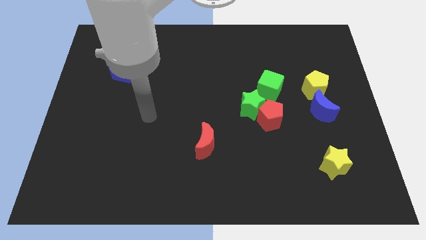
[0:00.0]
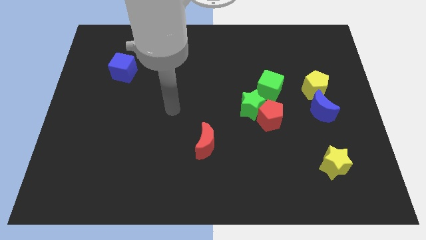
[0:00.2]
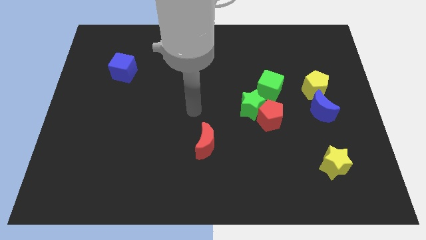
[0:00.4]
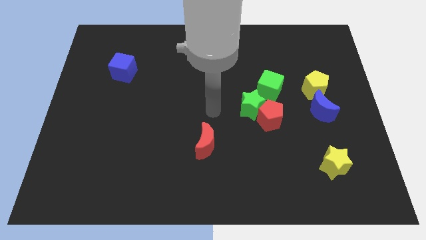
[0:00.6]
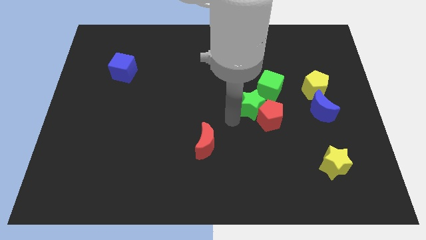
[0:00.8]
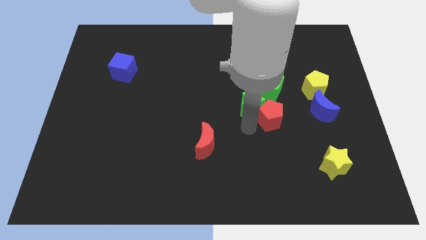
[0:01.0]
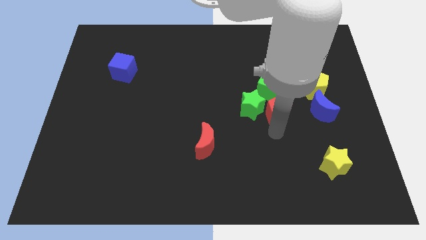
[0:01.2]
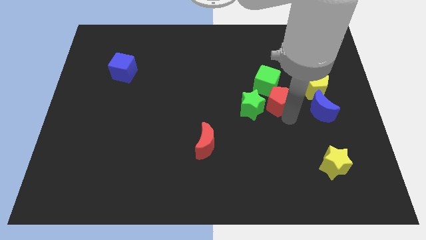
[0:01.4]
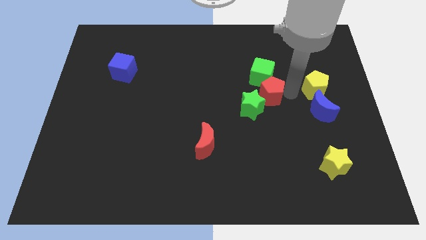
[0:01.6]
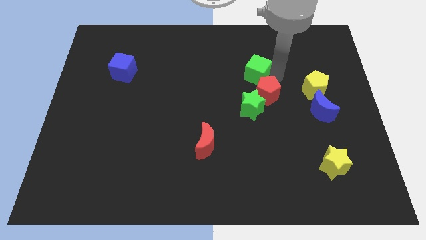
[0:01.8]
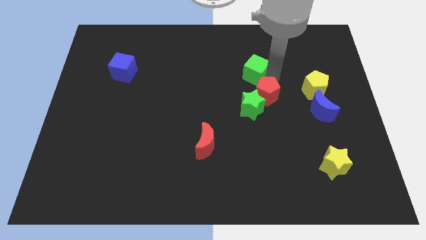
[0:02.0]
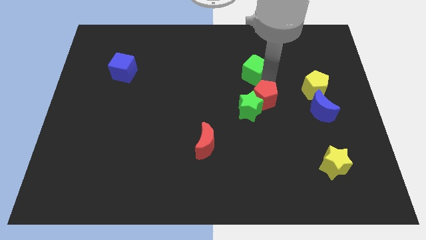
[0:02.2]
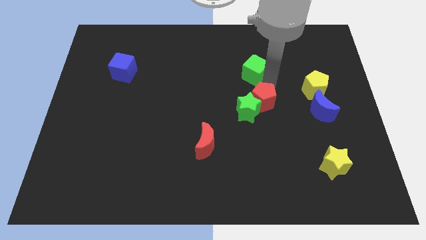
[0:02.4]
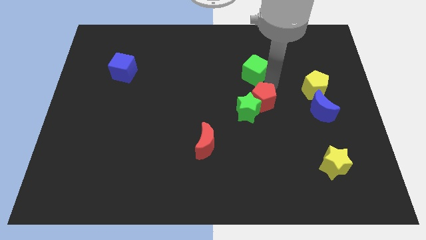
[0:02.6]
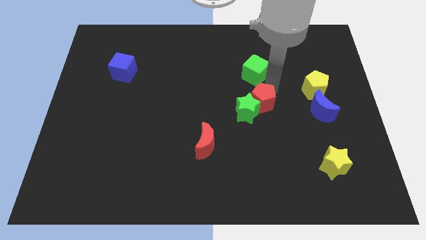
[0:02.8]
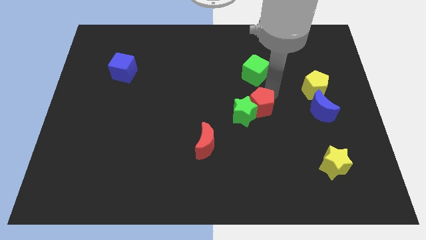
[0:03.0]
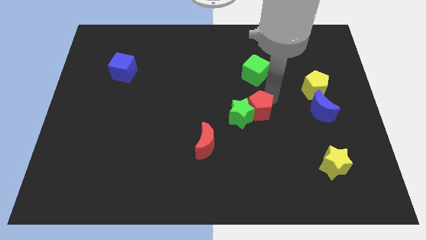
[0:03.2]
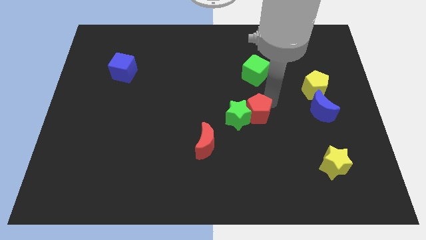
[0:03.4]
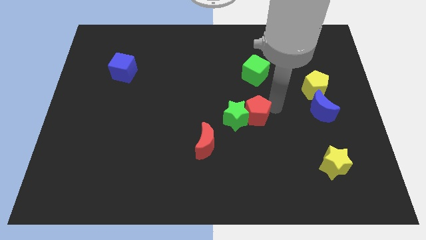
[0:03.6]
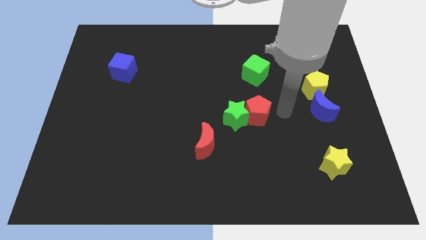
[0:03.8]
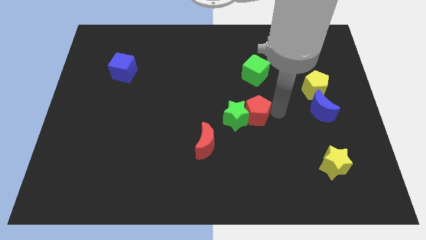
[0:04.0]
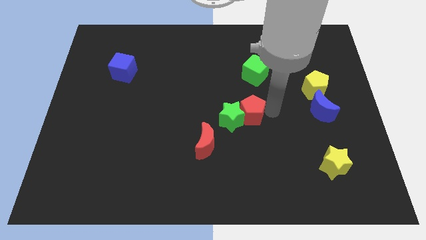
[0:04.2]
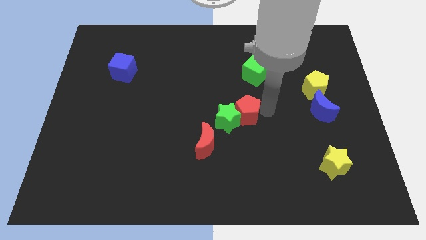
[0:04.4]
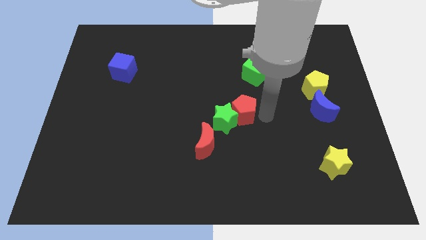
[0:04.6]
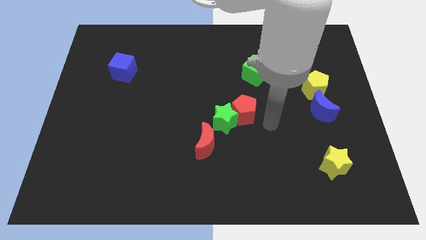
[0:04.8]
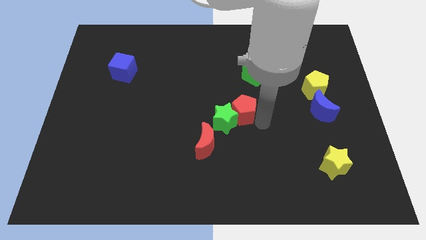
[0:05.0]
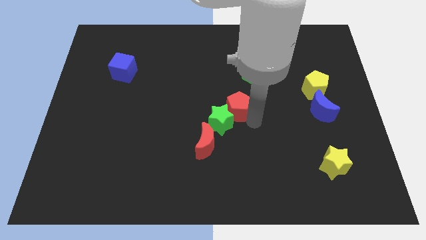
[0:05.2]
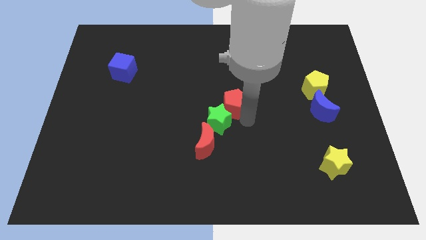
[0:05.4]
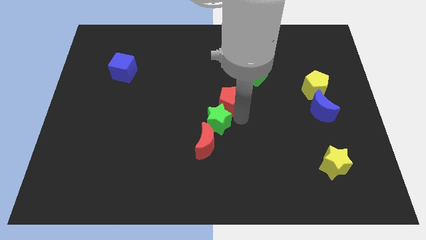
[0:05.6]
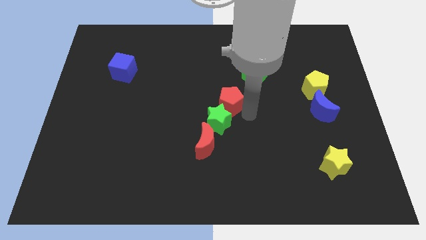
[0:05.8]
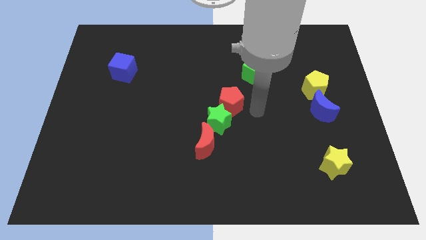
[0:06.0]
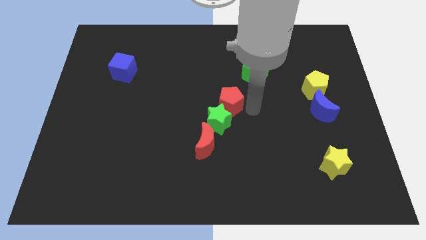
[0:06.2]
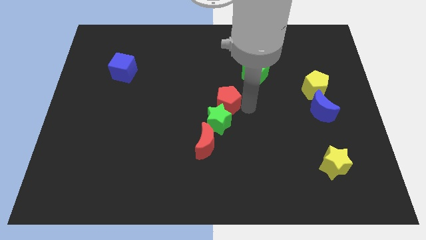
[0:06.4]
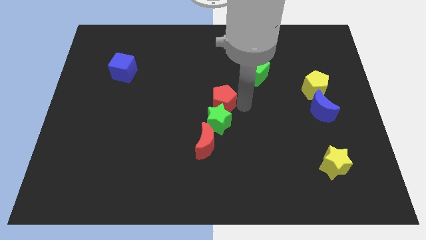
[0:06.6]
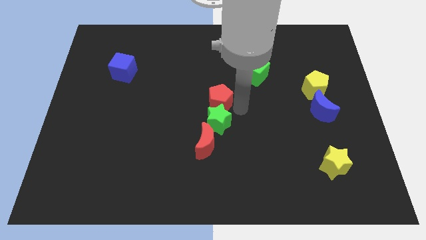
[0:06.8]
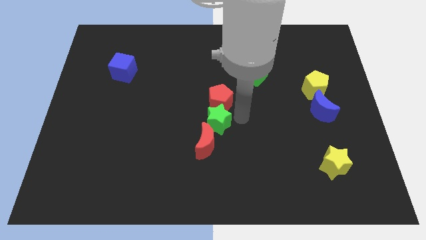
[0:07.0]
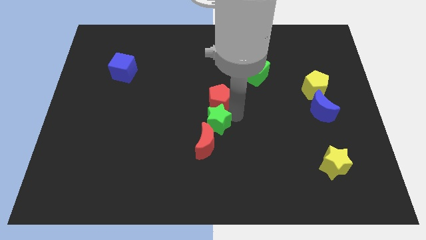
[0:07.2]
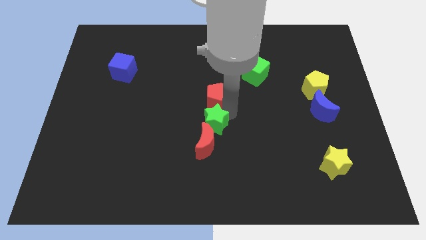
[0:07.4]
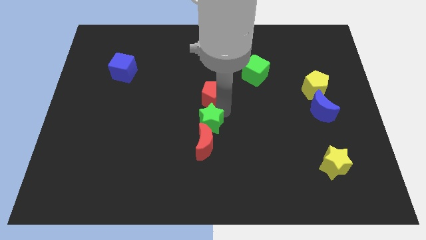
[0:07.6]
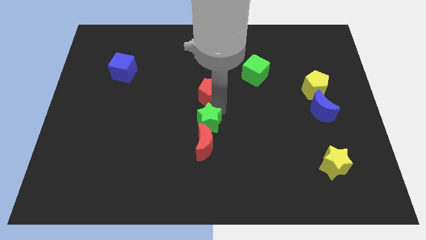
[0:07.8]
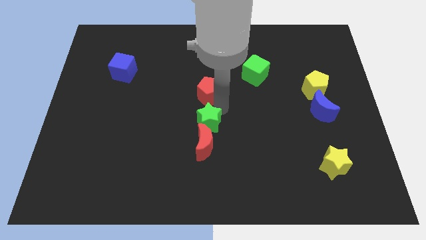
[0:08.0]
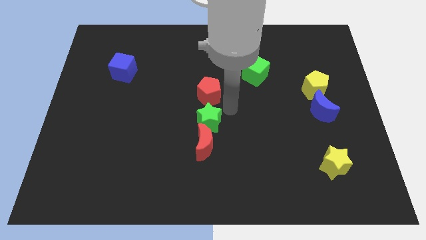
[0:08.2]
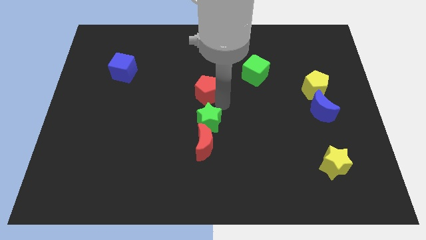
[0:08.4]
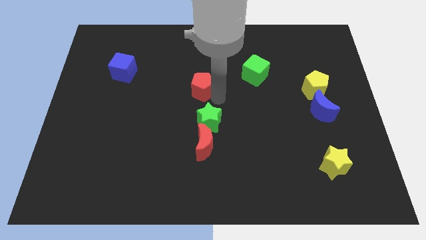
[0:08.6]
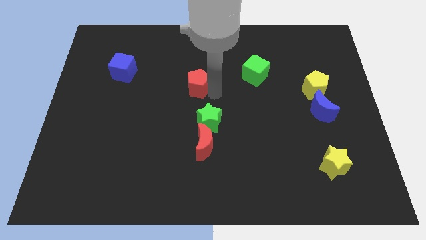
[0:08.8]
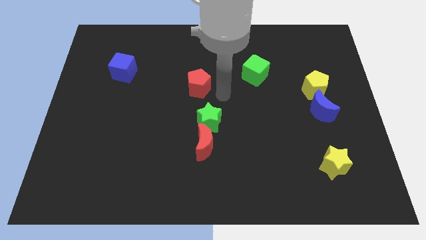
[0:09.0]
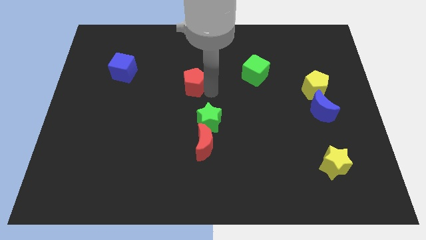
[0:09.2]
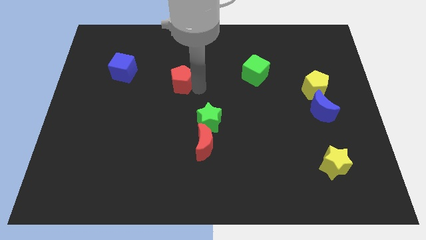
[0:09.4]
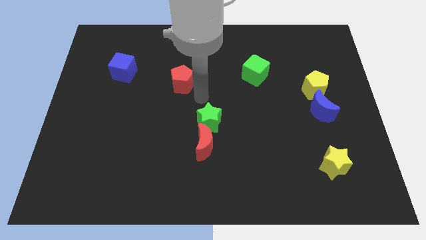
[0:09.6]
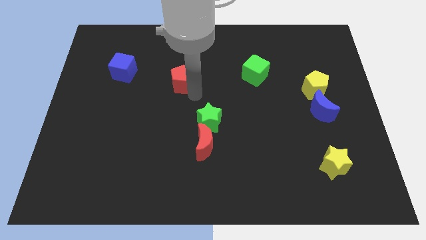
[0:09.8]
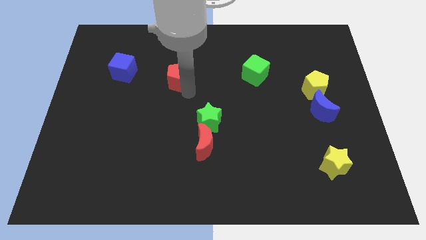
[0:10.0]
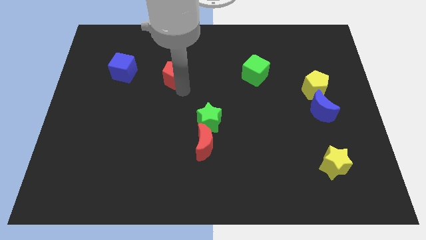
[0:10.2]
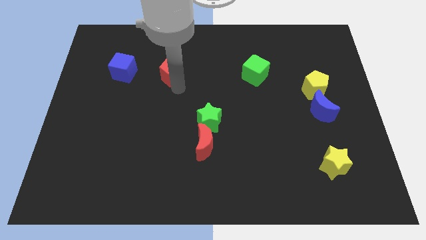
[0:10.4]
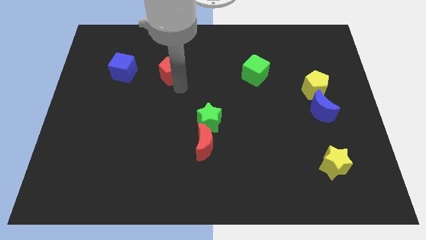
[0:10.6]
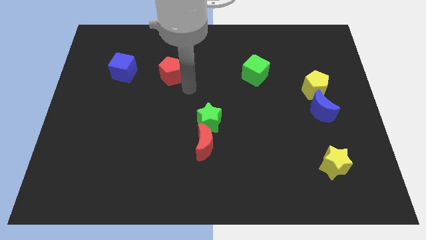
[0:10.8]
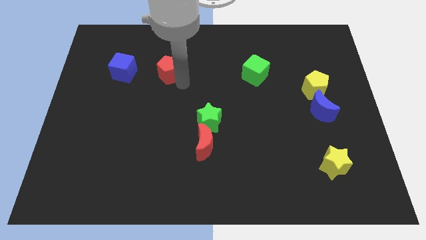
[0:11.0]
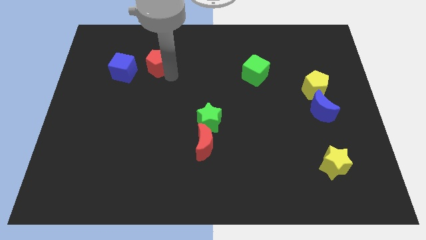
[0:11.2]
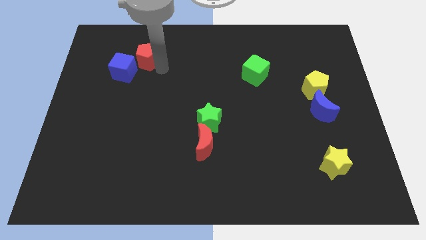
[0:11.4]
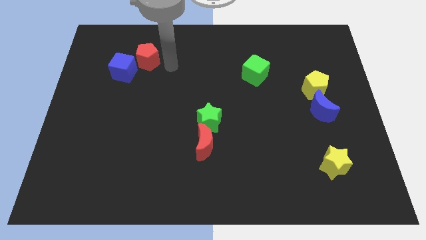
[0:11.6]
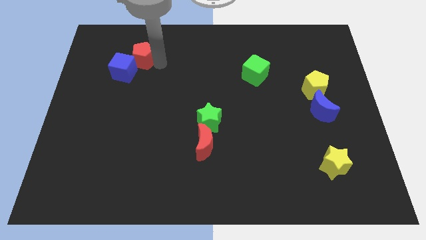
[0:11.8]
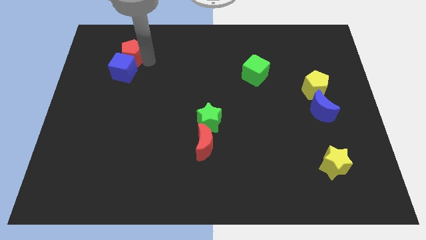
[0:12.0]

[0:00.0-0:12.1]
push the red pentagon to the top left side of the blue cube

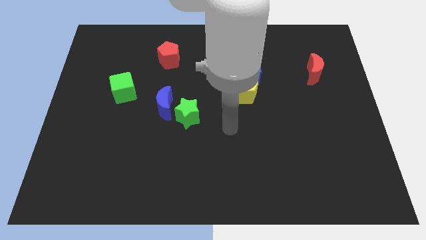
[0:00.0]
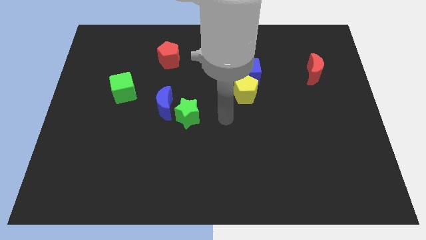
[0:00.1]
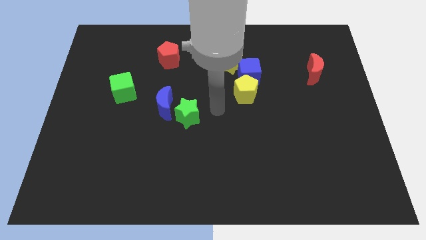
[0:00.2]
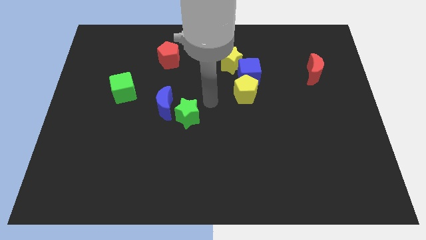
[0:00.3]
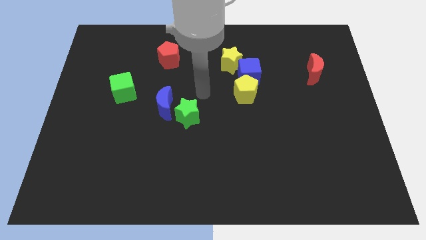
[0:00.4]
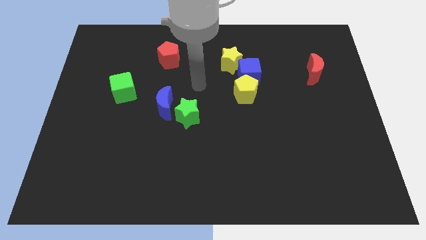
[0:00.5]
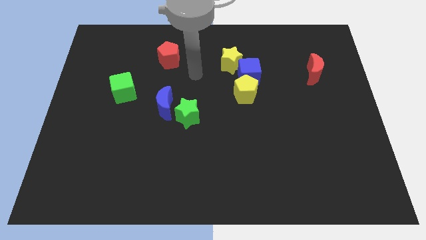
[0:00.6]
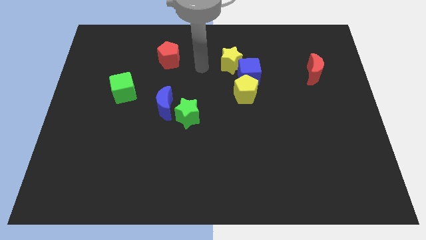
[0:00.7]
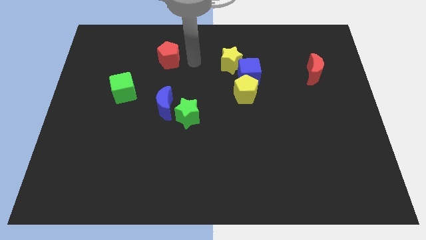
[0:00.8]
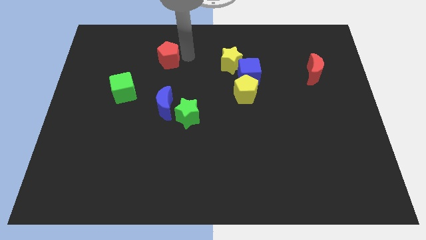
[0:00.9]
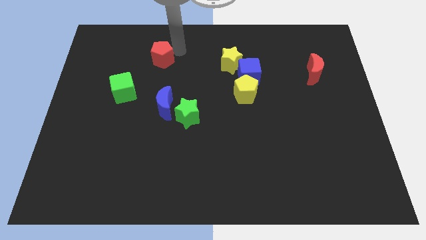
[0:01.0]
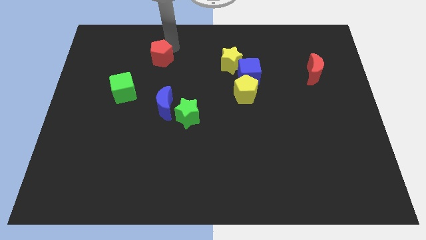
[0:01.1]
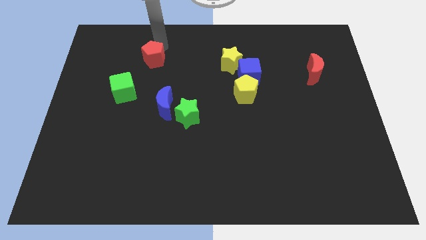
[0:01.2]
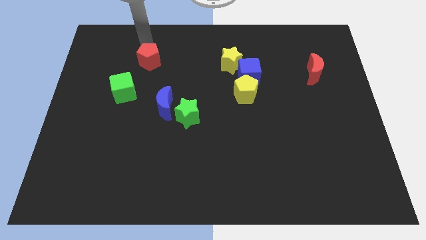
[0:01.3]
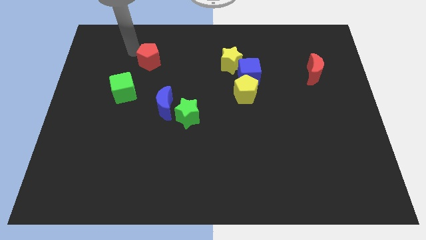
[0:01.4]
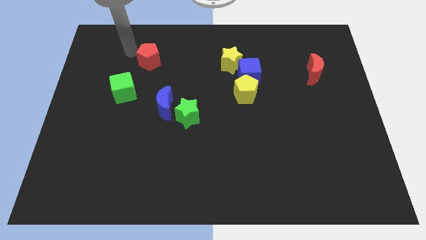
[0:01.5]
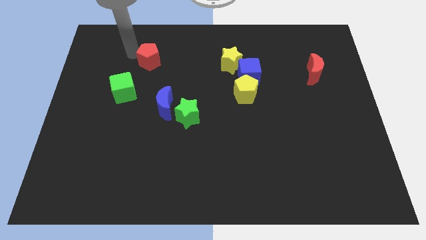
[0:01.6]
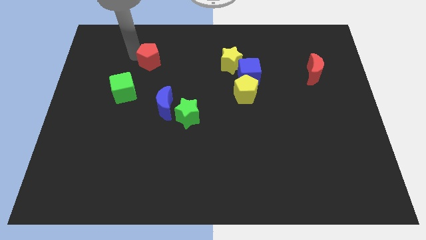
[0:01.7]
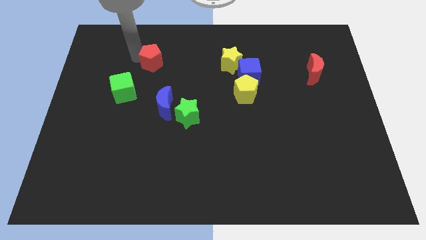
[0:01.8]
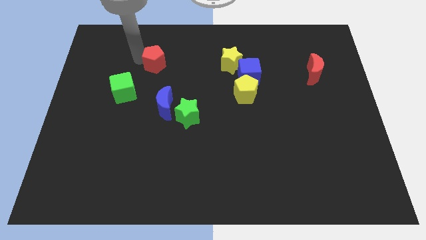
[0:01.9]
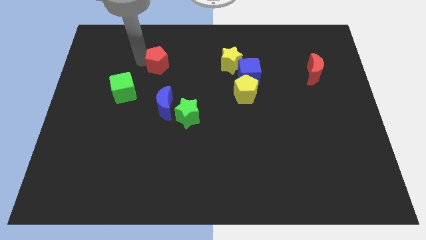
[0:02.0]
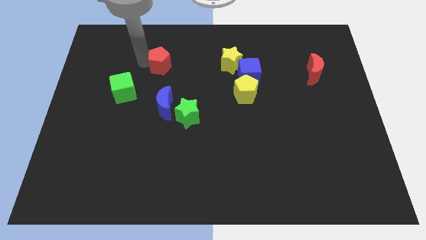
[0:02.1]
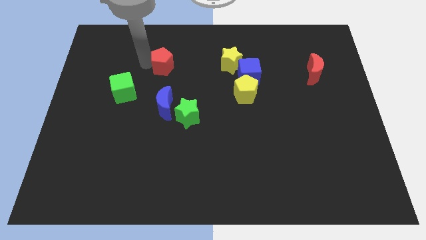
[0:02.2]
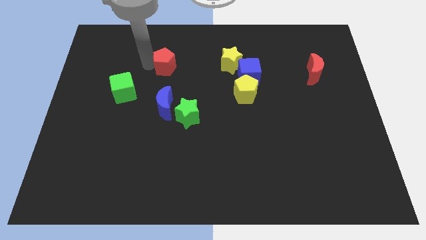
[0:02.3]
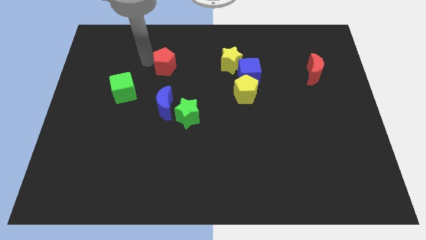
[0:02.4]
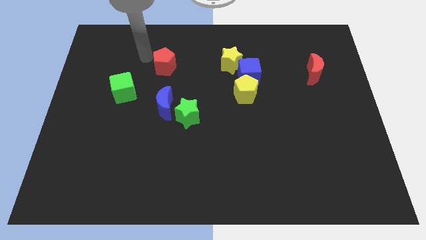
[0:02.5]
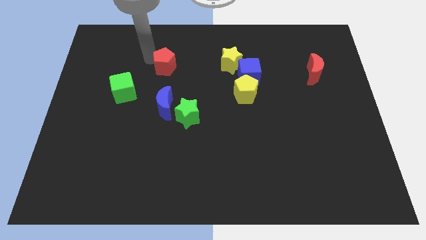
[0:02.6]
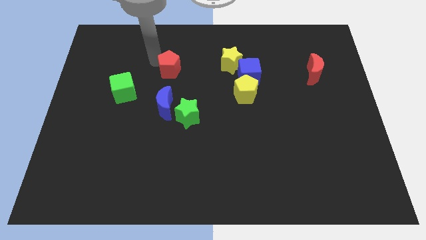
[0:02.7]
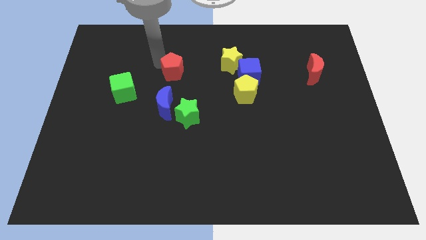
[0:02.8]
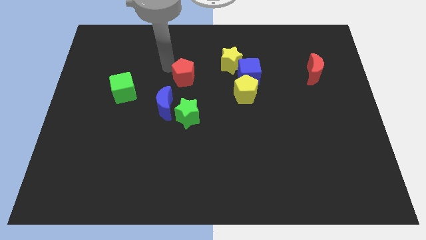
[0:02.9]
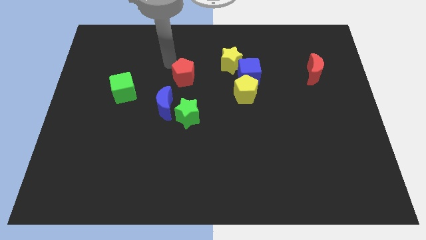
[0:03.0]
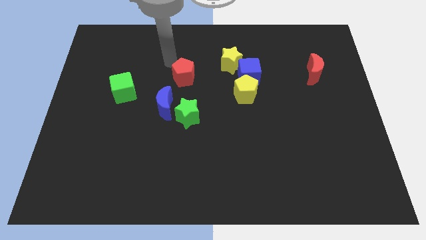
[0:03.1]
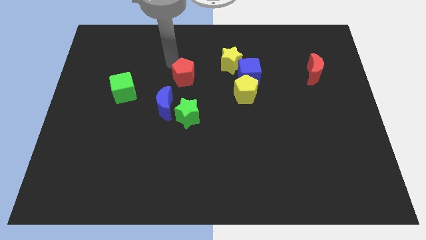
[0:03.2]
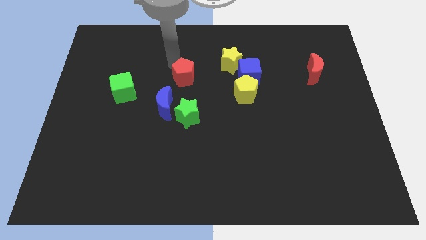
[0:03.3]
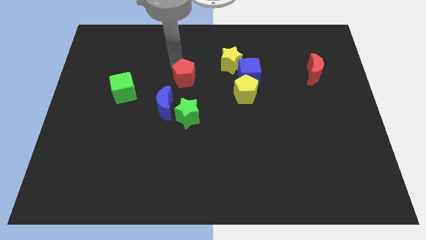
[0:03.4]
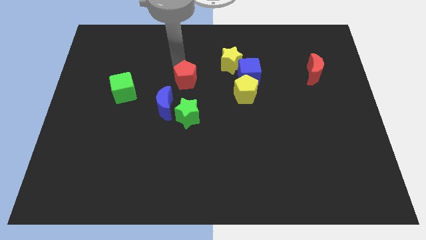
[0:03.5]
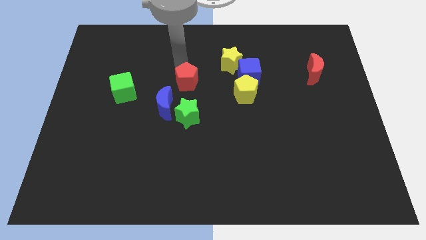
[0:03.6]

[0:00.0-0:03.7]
move the red pentagon to the left of the yellow pentagon
